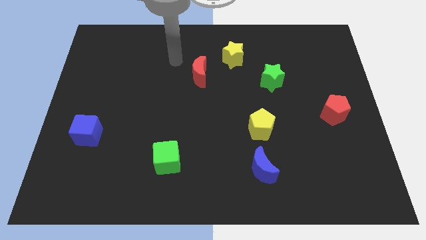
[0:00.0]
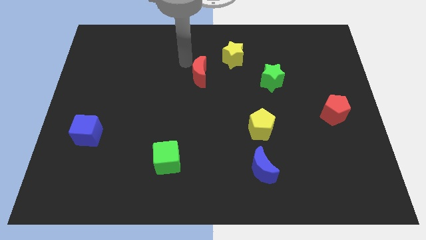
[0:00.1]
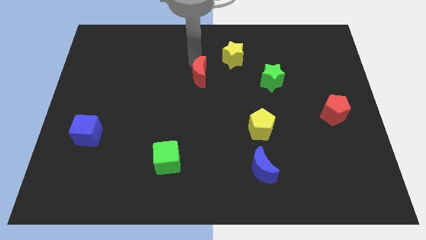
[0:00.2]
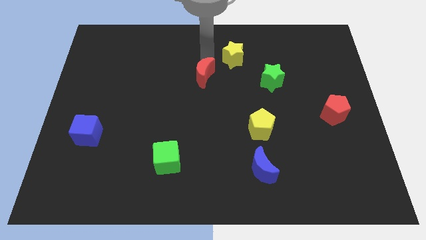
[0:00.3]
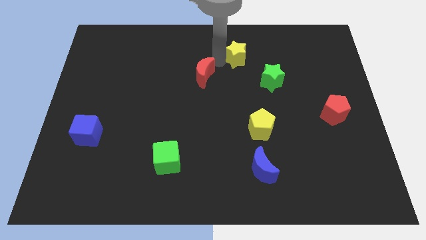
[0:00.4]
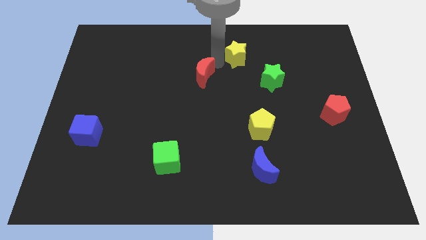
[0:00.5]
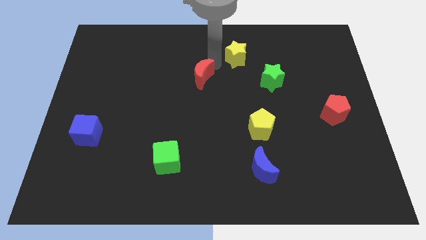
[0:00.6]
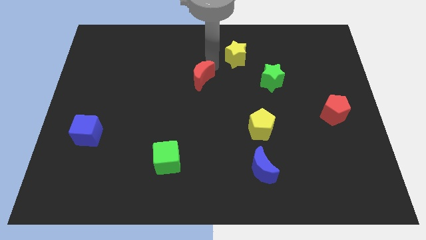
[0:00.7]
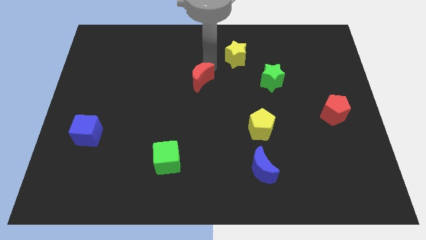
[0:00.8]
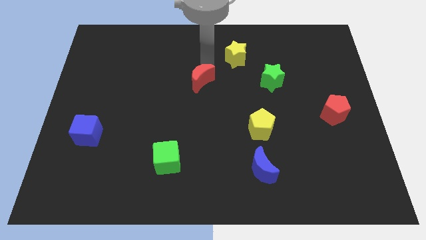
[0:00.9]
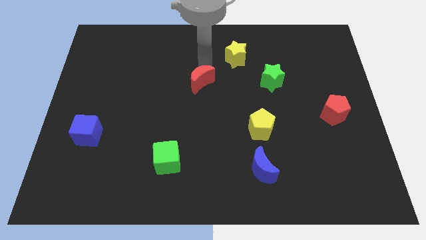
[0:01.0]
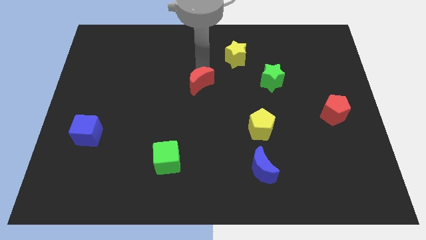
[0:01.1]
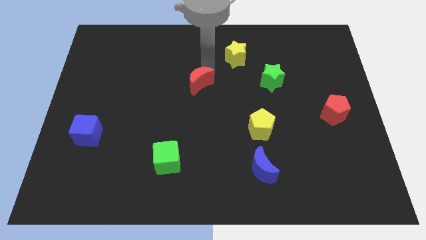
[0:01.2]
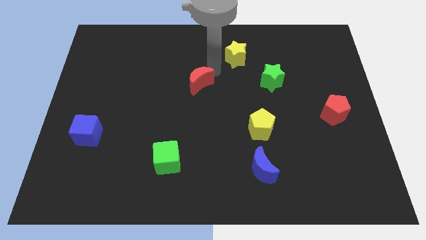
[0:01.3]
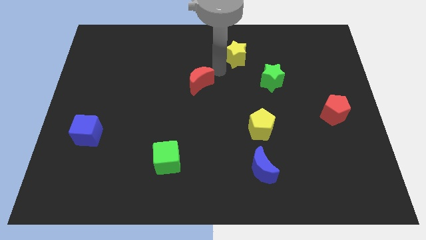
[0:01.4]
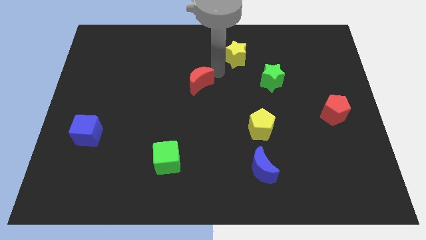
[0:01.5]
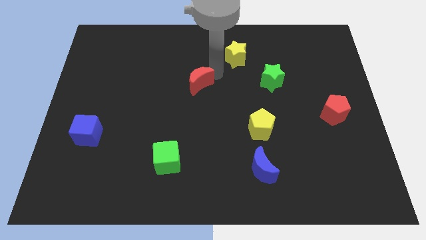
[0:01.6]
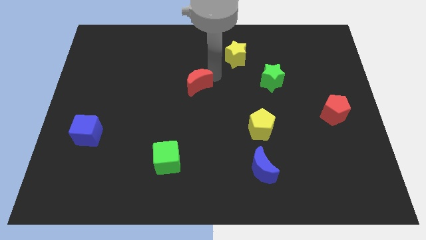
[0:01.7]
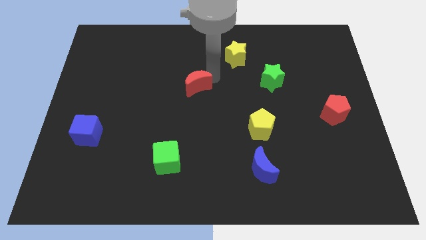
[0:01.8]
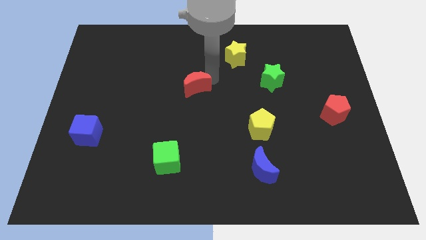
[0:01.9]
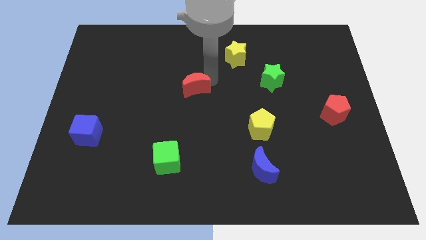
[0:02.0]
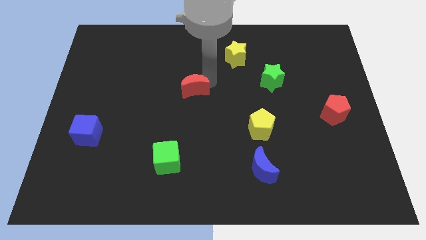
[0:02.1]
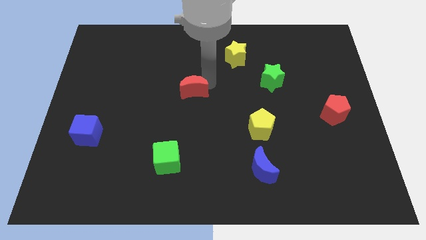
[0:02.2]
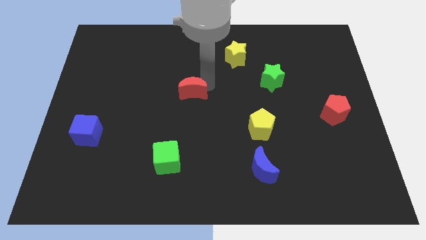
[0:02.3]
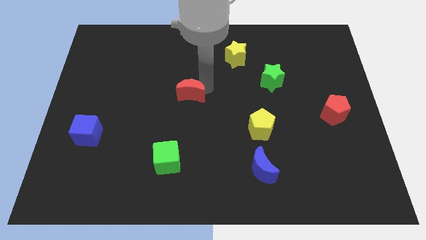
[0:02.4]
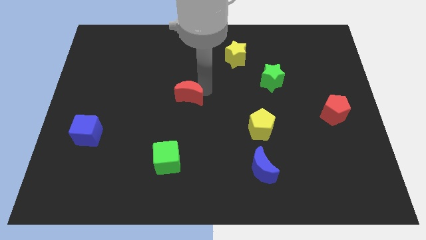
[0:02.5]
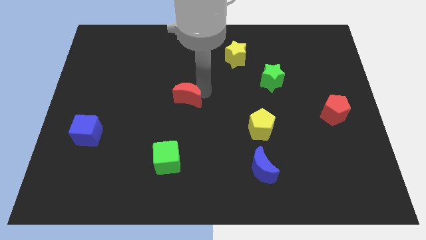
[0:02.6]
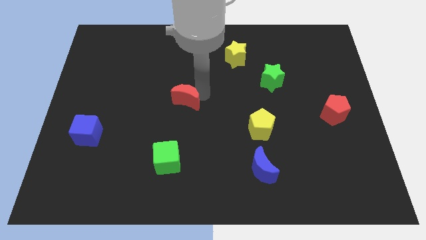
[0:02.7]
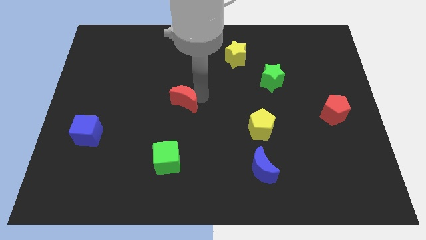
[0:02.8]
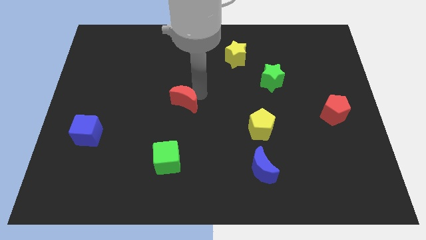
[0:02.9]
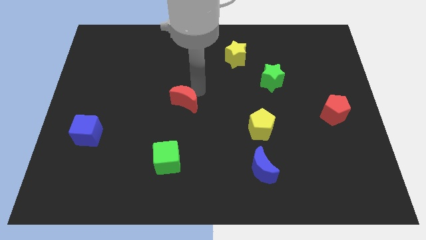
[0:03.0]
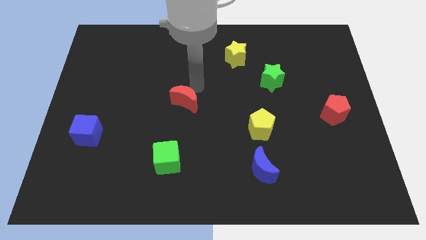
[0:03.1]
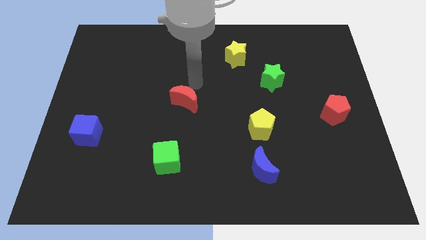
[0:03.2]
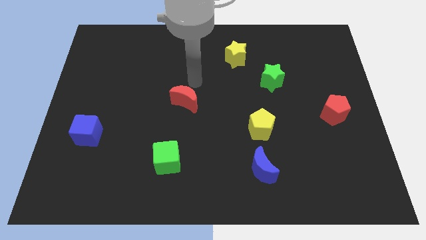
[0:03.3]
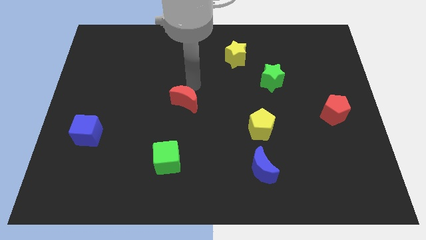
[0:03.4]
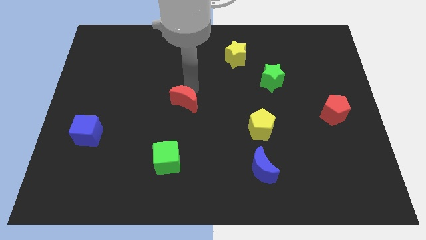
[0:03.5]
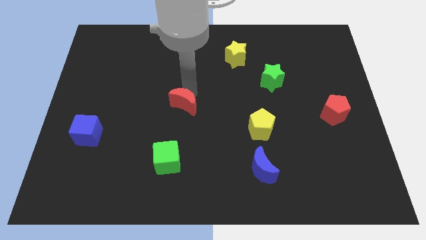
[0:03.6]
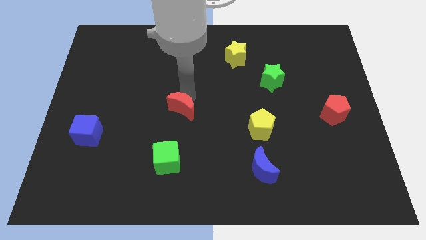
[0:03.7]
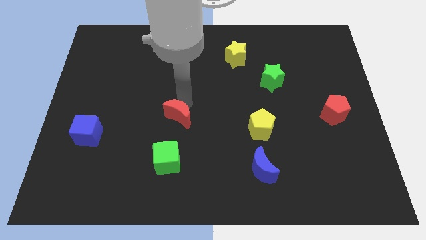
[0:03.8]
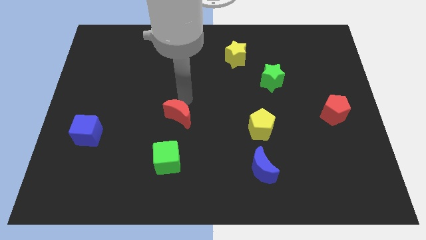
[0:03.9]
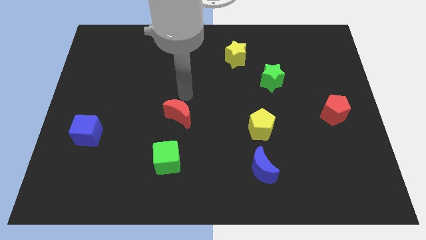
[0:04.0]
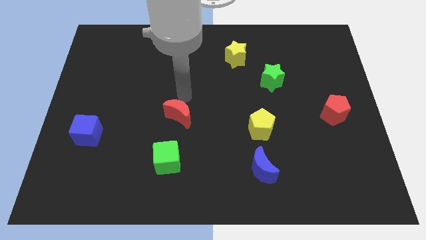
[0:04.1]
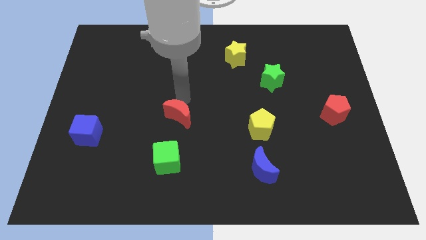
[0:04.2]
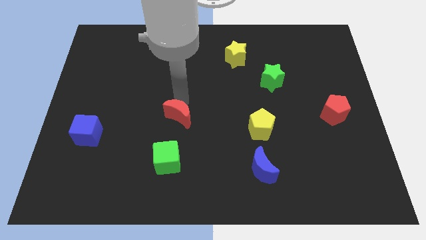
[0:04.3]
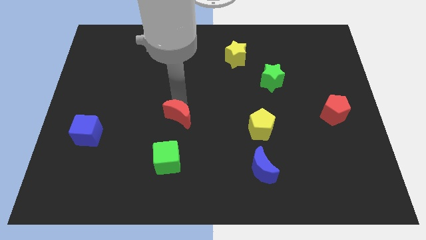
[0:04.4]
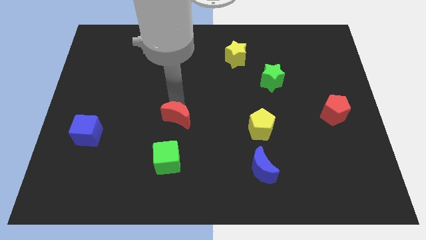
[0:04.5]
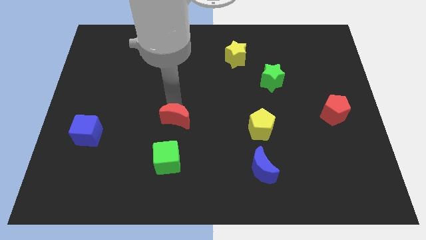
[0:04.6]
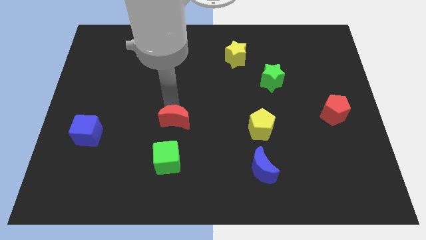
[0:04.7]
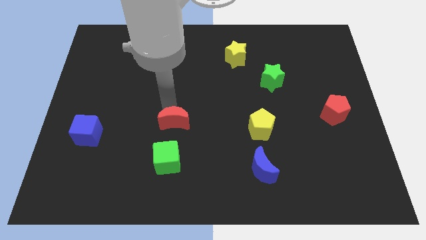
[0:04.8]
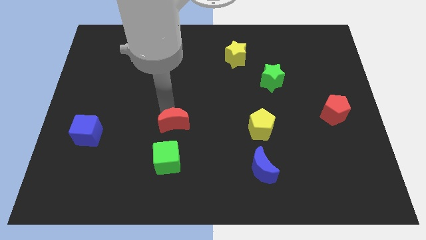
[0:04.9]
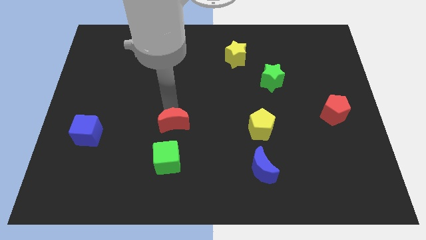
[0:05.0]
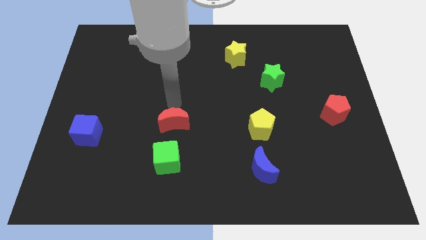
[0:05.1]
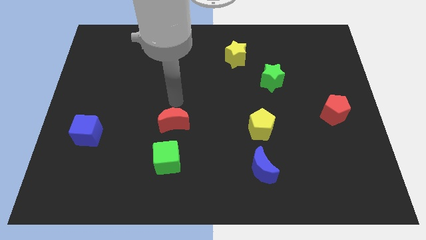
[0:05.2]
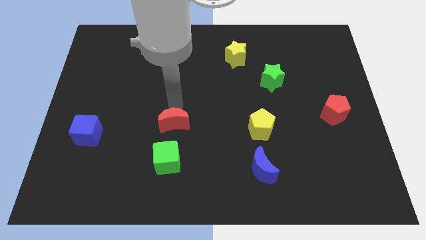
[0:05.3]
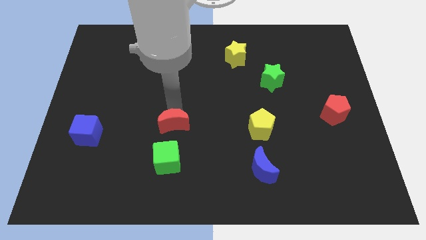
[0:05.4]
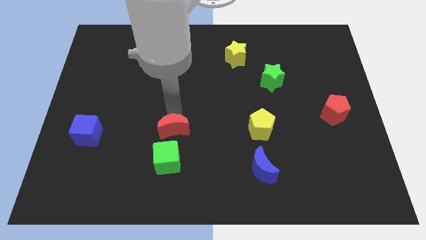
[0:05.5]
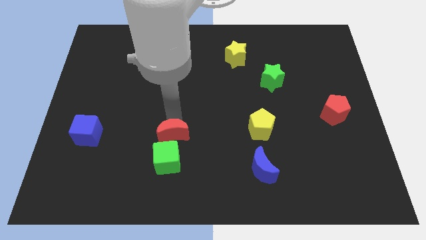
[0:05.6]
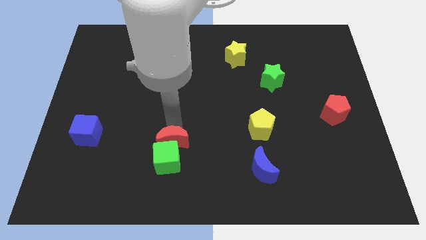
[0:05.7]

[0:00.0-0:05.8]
push the red moon towards the green cube

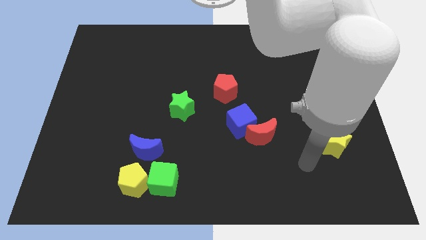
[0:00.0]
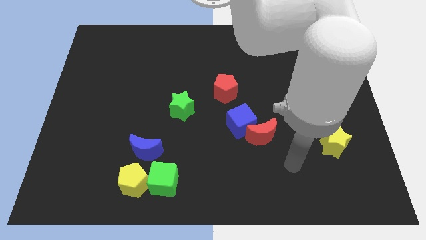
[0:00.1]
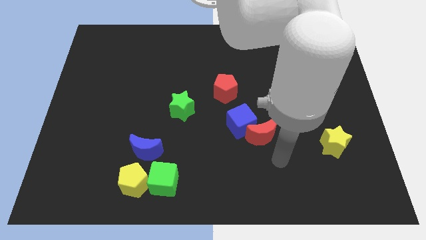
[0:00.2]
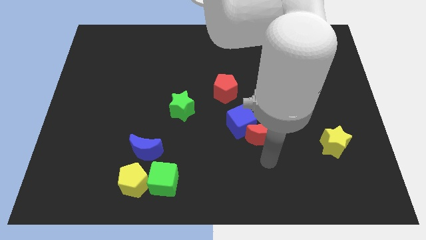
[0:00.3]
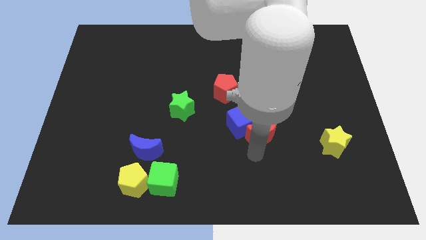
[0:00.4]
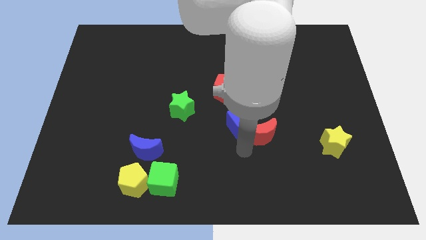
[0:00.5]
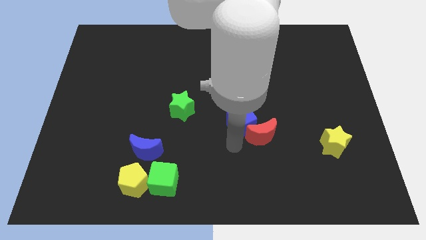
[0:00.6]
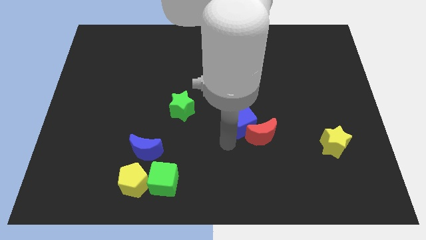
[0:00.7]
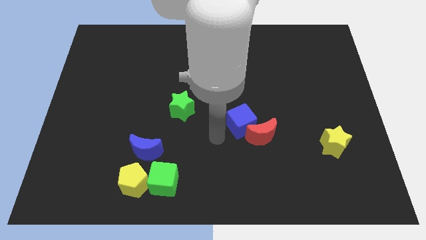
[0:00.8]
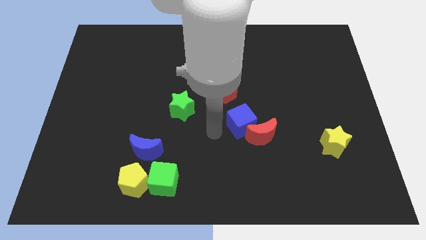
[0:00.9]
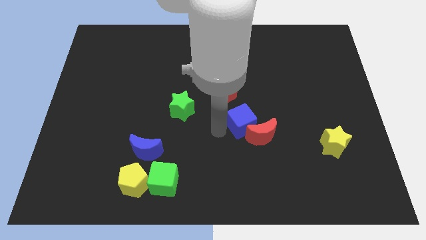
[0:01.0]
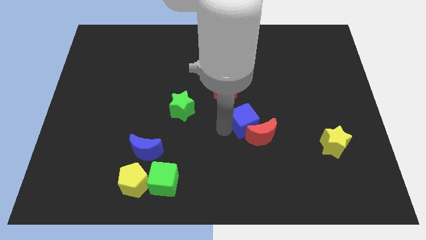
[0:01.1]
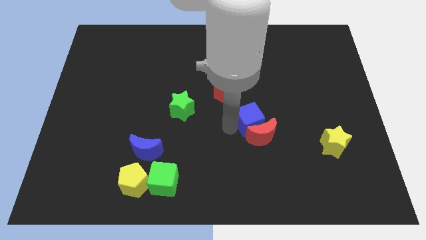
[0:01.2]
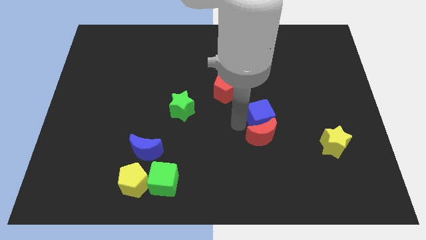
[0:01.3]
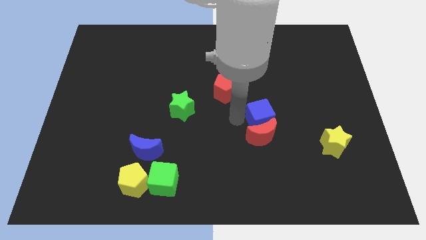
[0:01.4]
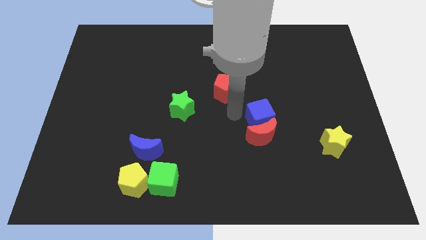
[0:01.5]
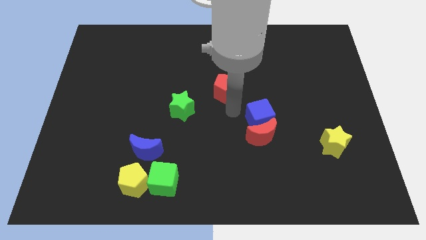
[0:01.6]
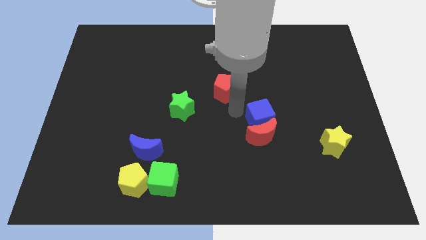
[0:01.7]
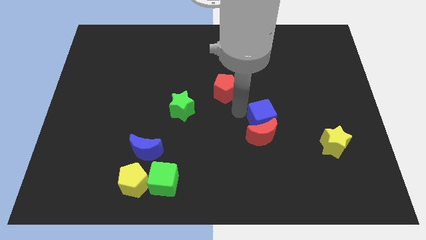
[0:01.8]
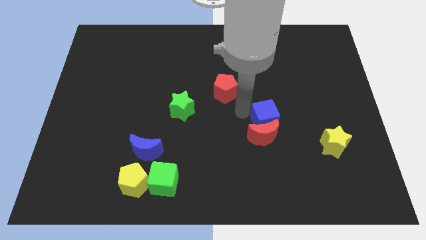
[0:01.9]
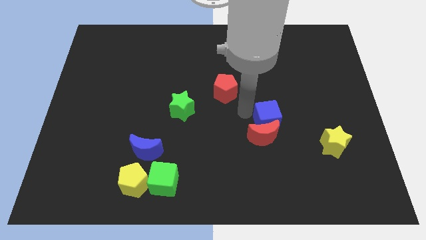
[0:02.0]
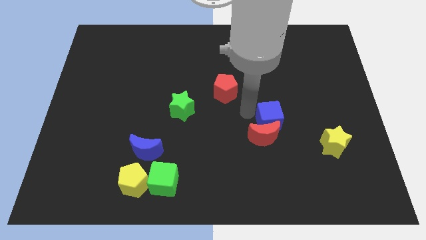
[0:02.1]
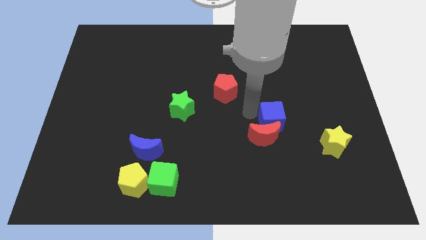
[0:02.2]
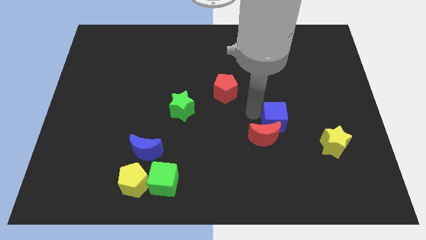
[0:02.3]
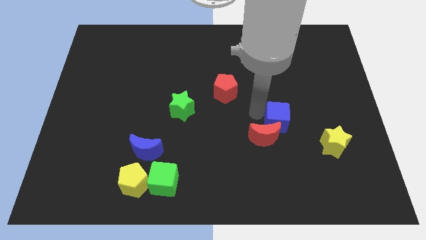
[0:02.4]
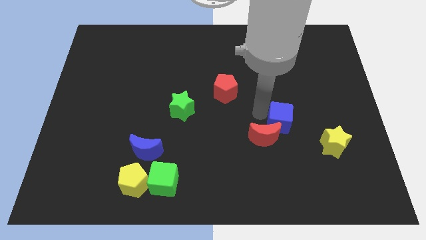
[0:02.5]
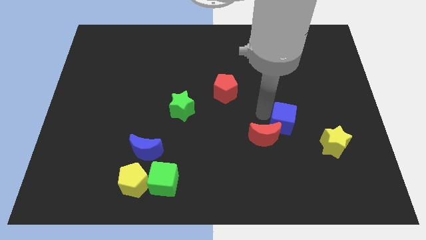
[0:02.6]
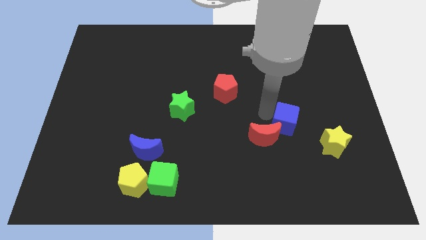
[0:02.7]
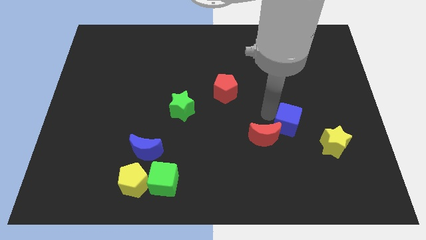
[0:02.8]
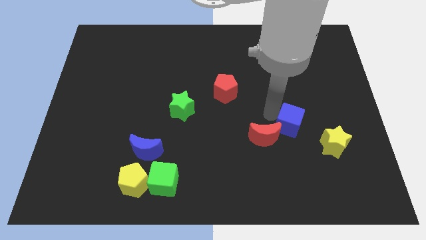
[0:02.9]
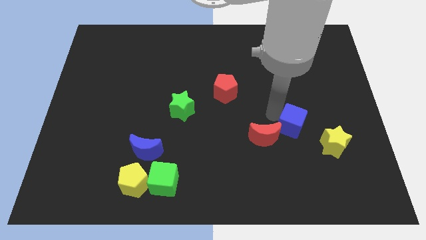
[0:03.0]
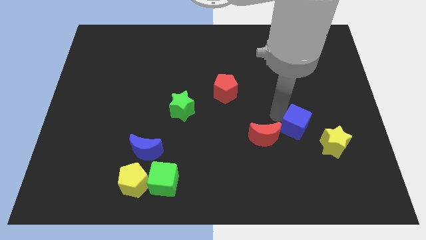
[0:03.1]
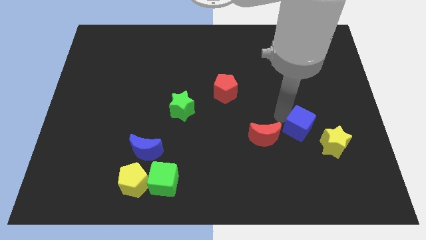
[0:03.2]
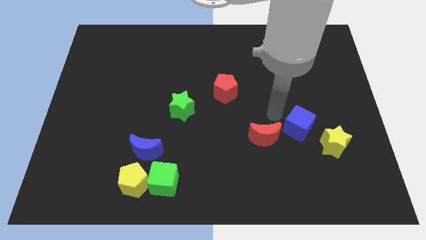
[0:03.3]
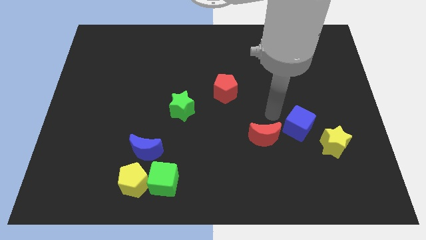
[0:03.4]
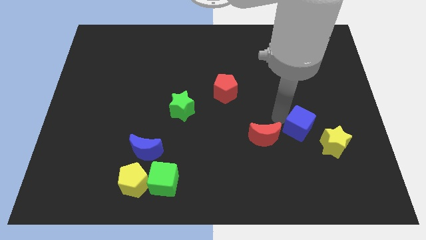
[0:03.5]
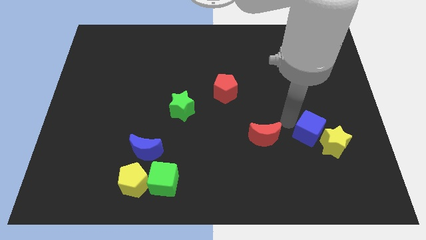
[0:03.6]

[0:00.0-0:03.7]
push the blue cube to the yellow star
